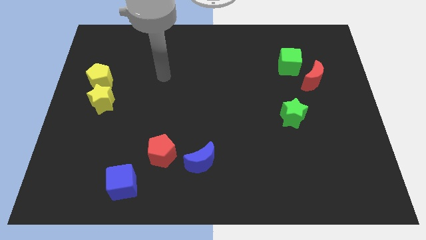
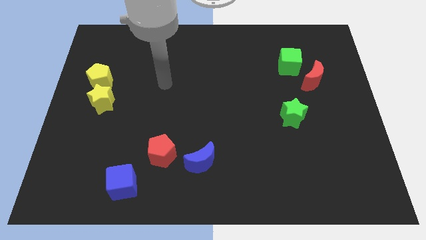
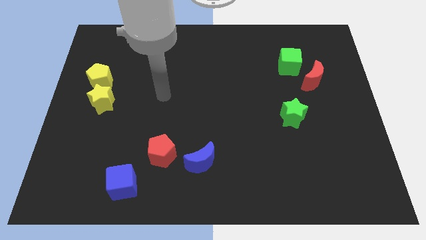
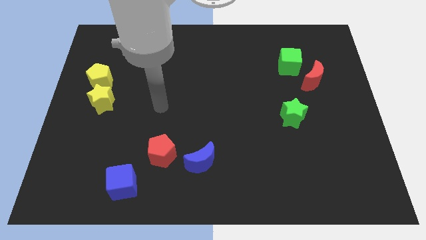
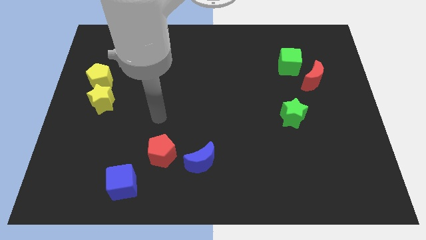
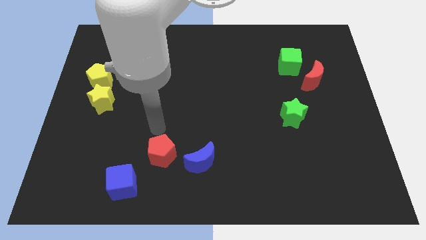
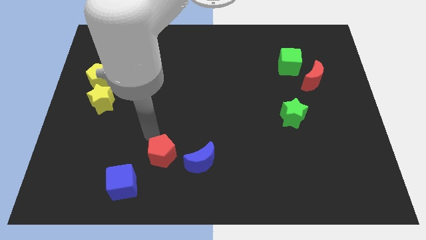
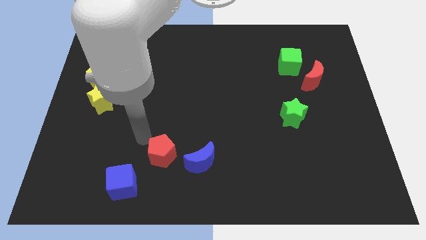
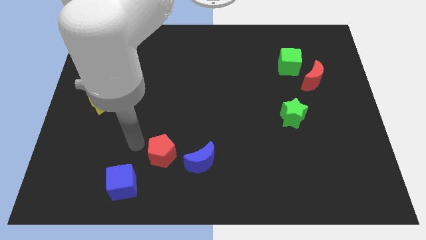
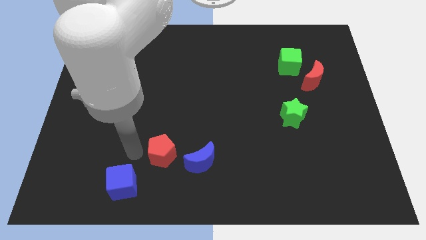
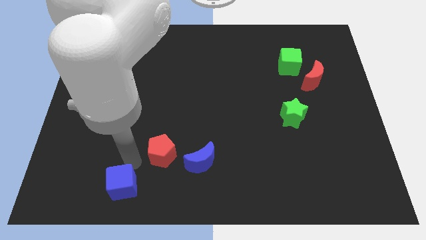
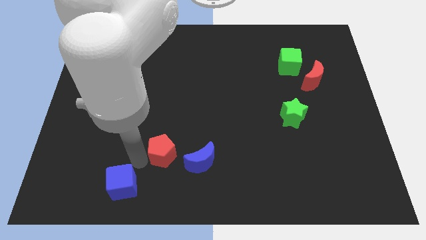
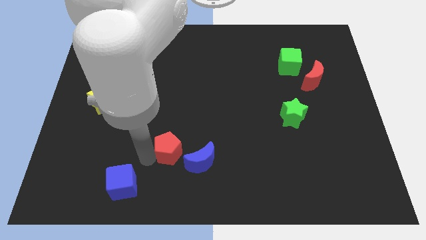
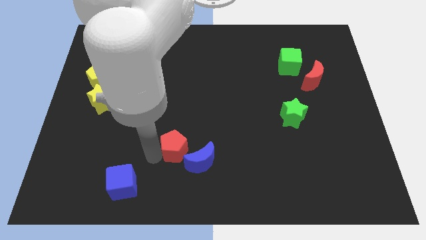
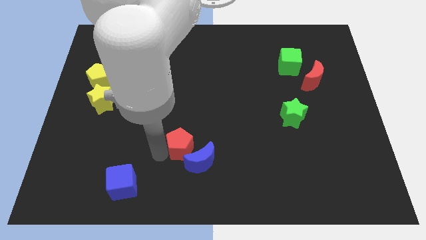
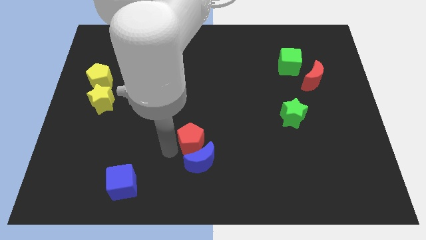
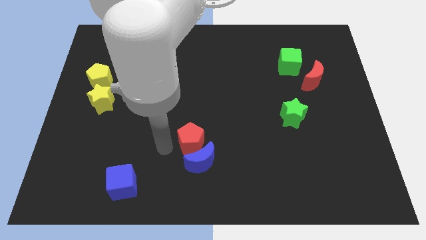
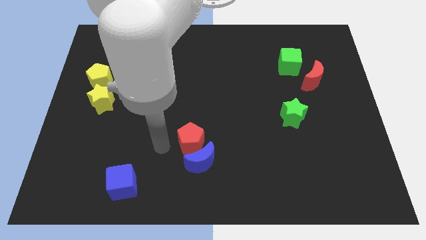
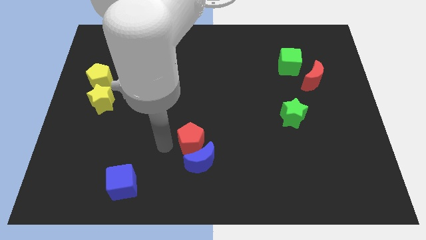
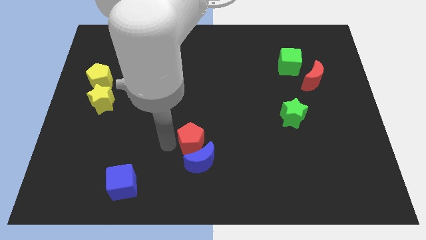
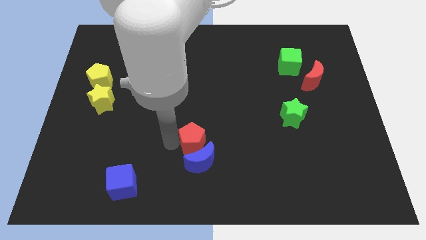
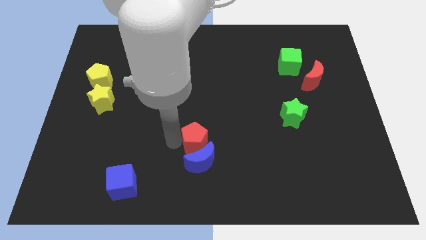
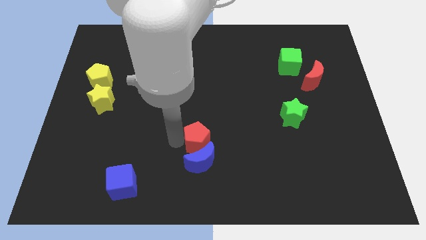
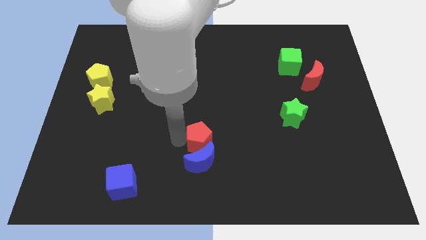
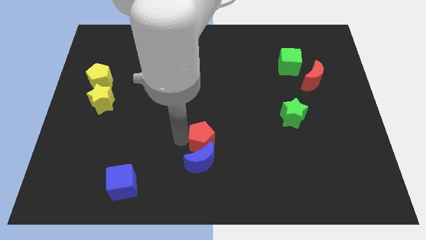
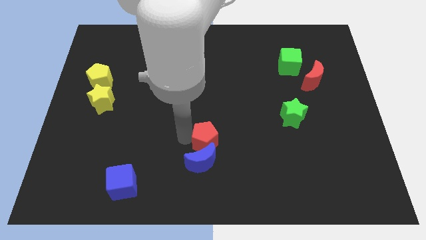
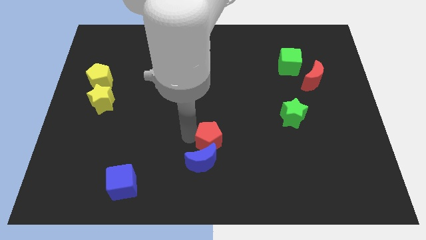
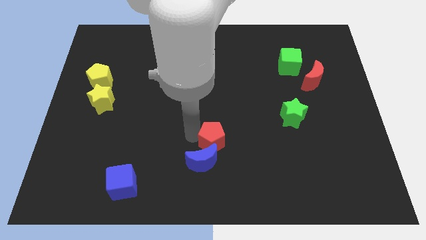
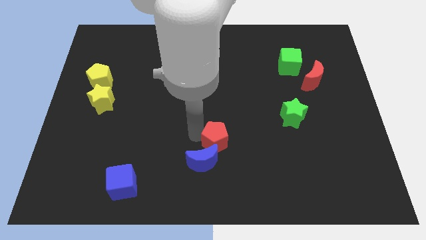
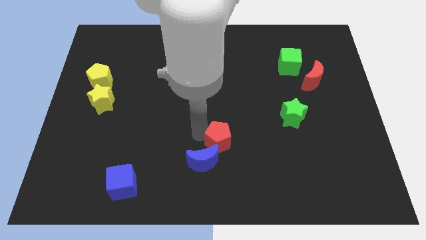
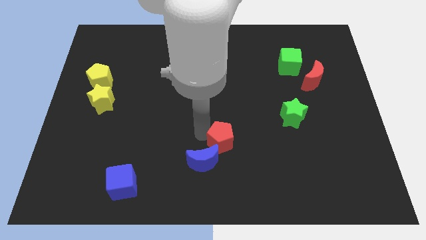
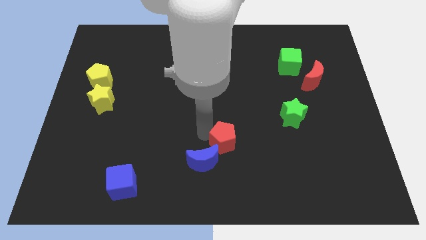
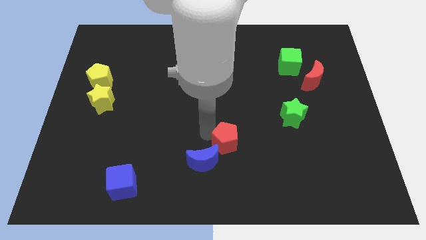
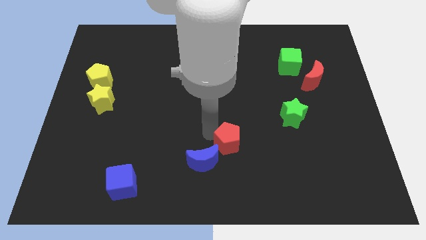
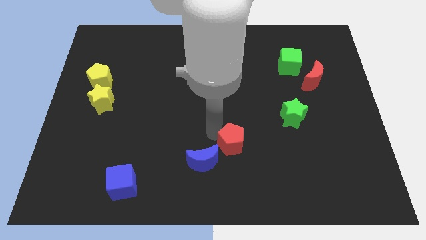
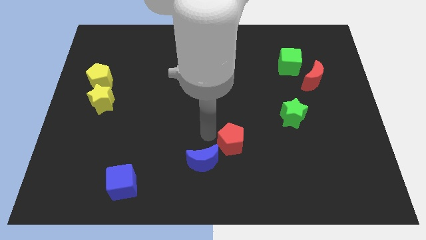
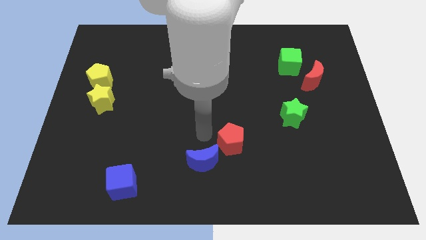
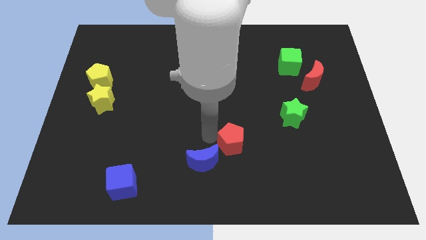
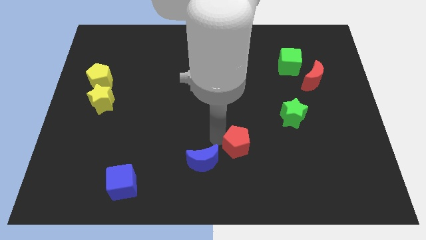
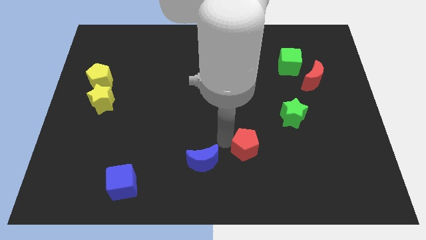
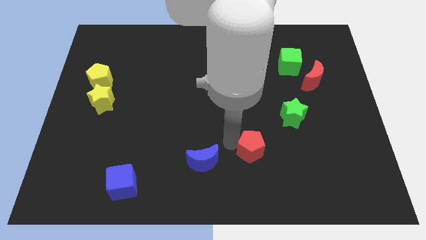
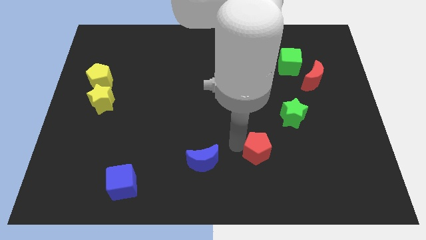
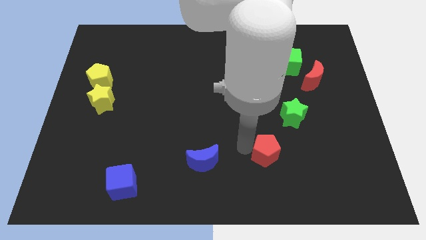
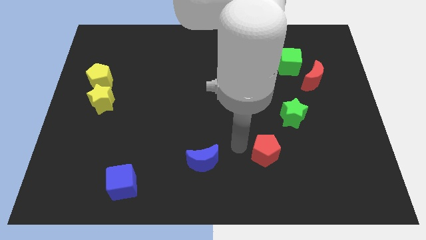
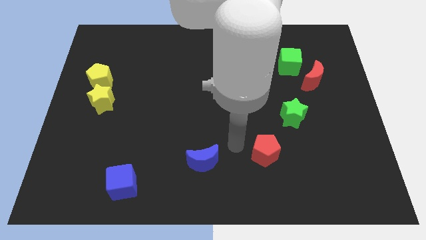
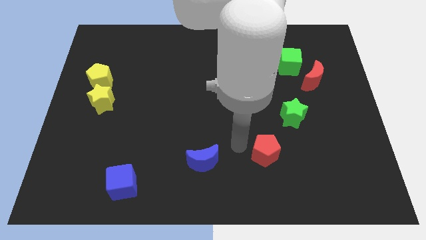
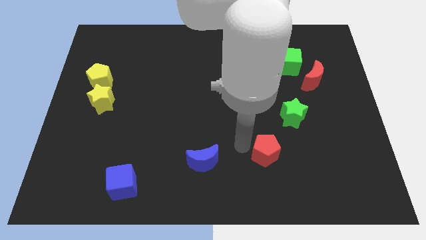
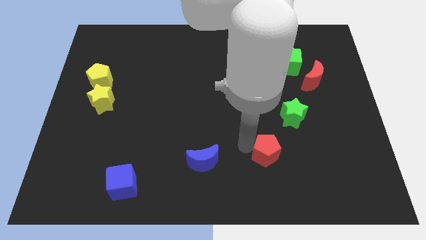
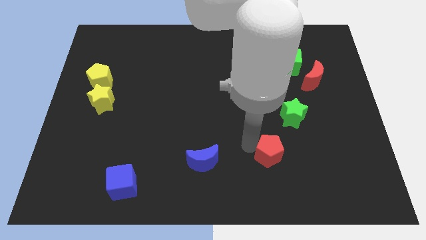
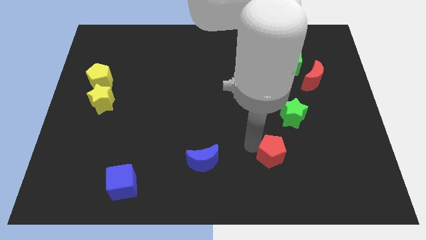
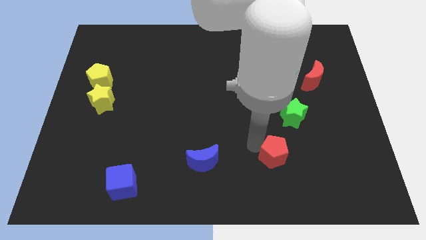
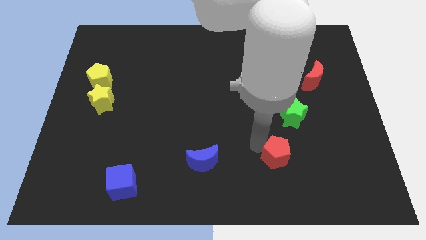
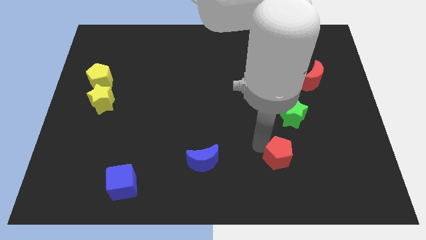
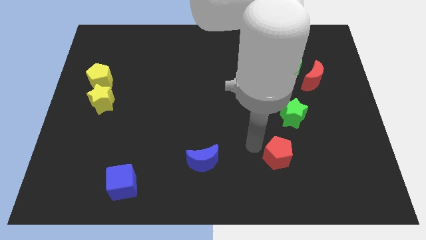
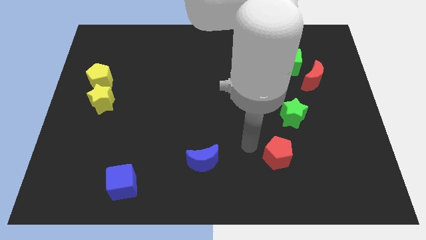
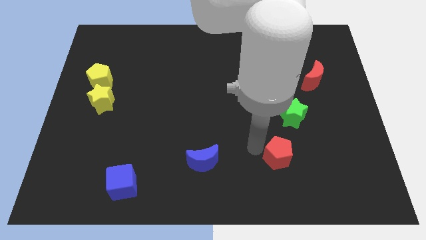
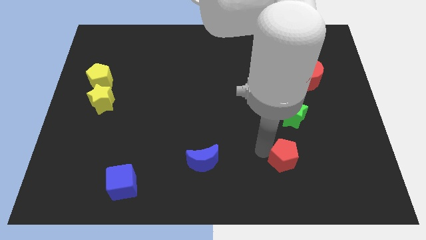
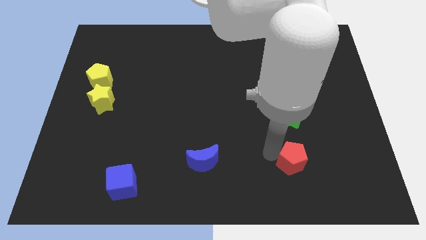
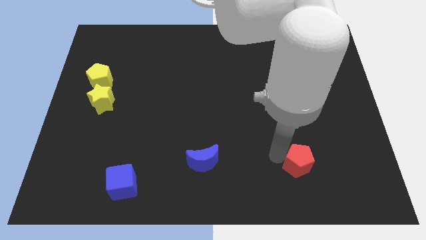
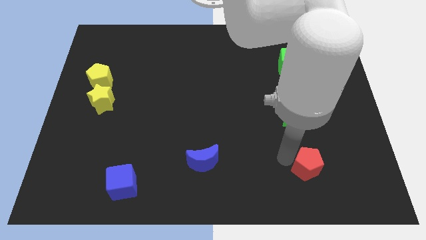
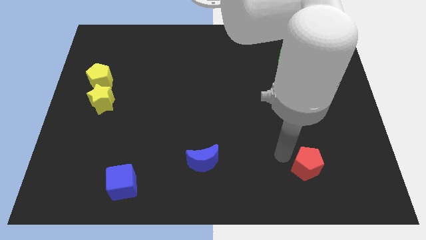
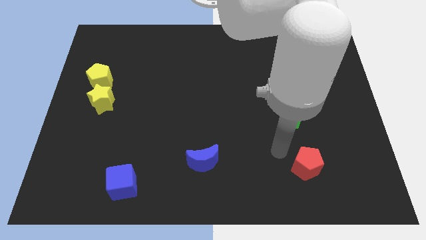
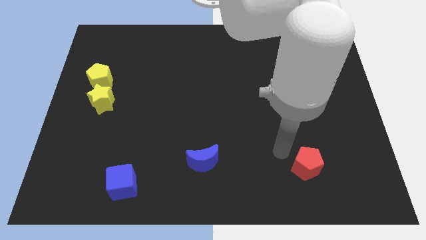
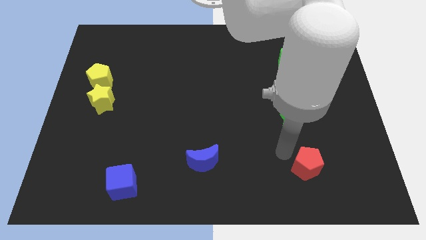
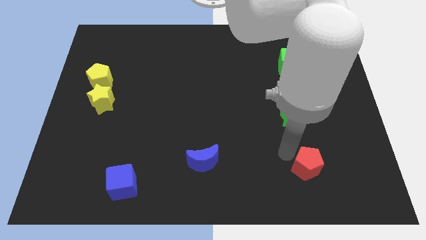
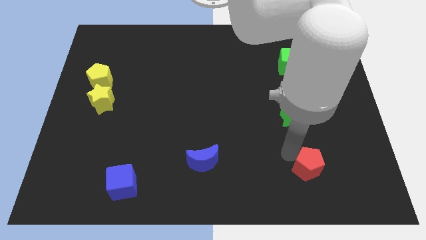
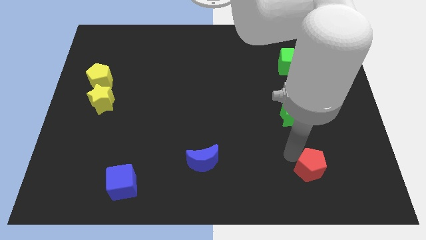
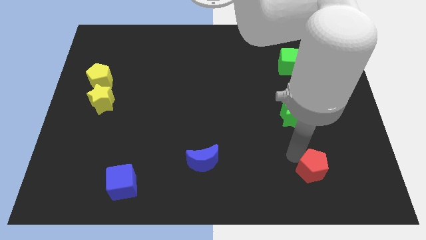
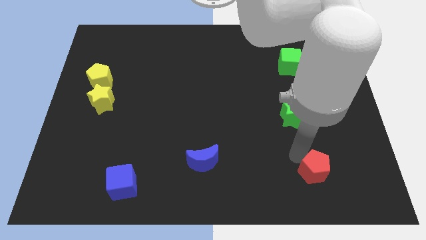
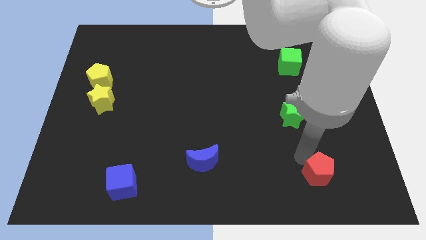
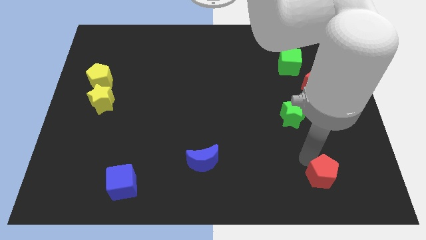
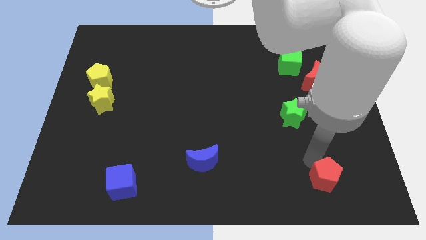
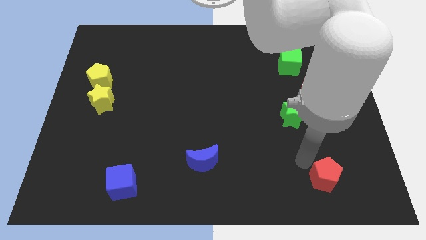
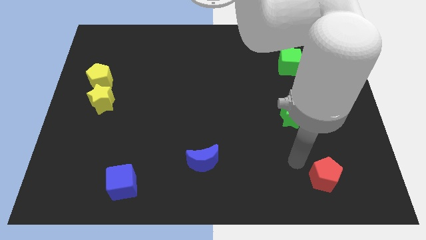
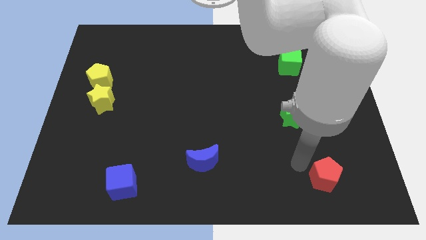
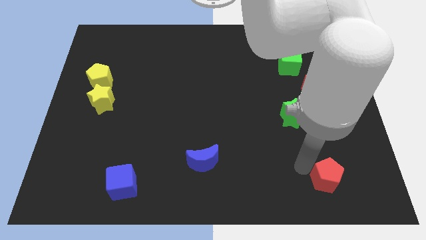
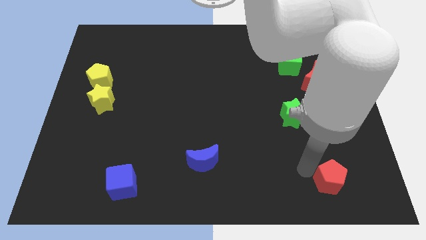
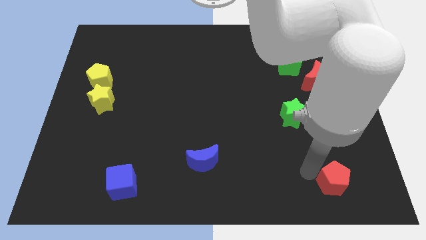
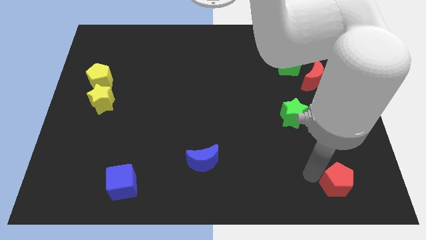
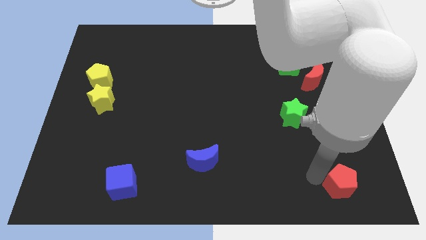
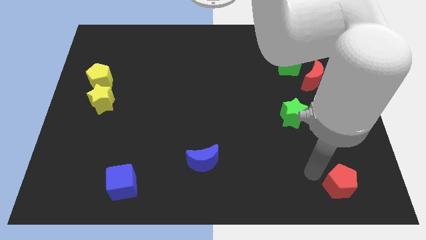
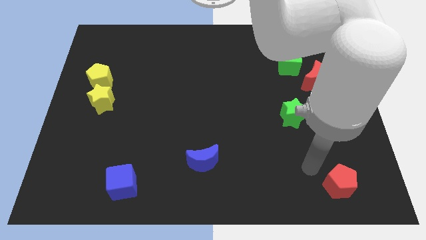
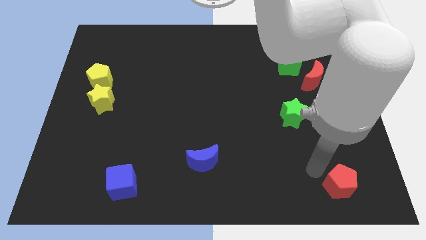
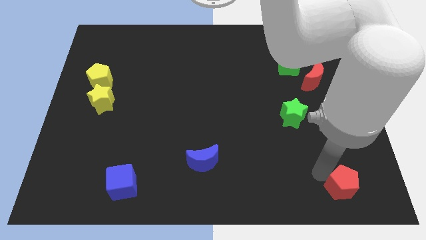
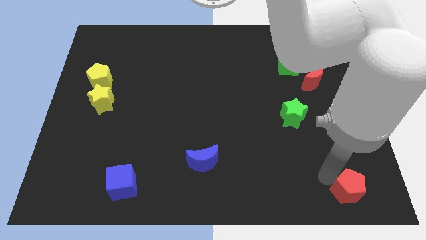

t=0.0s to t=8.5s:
slide the red pentagon to the bottom right
